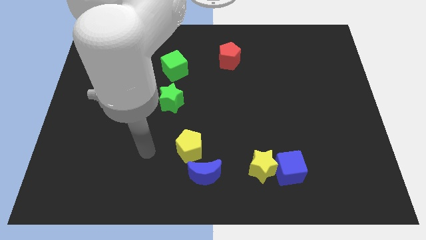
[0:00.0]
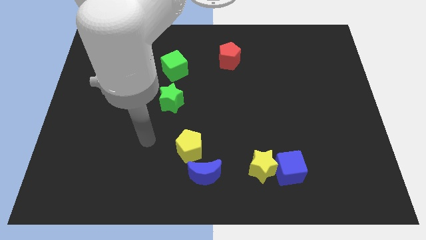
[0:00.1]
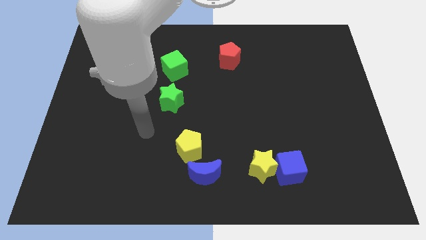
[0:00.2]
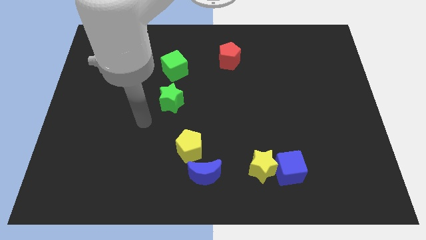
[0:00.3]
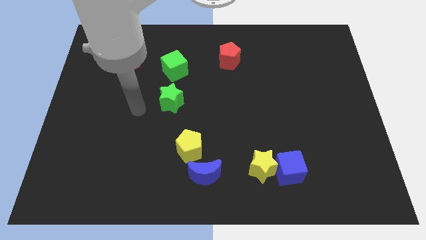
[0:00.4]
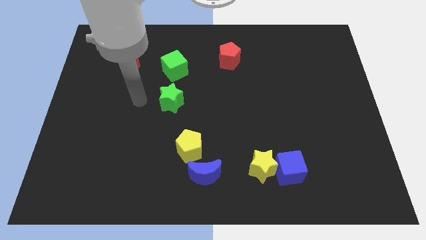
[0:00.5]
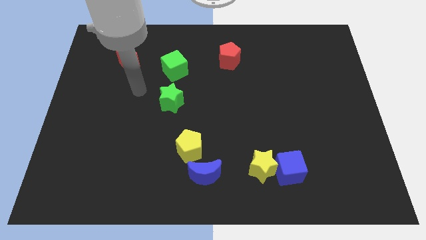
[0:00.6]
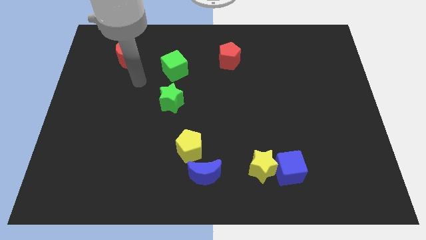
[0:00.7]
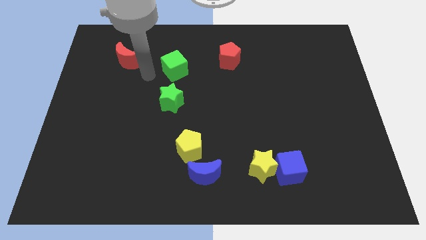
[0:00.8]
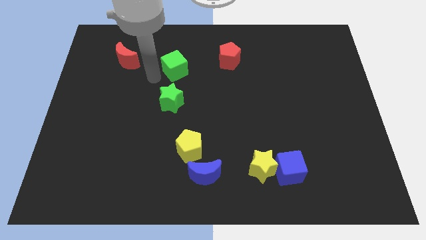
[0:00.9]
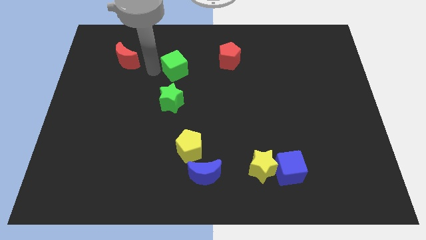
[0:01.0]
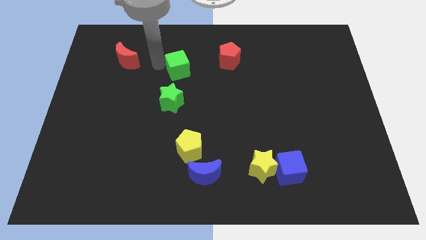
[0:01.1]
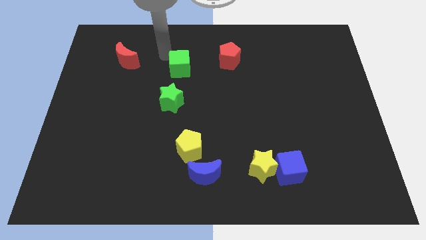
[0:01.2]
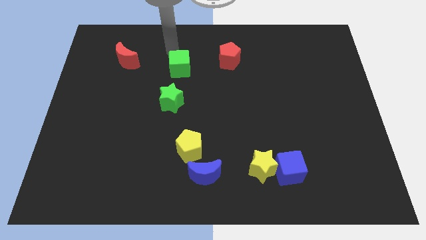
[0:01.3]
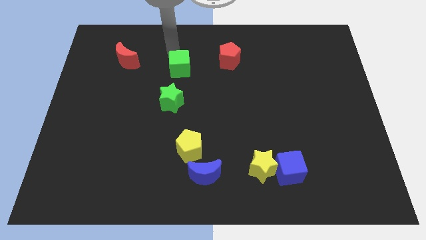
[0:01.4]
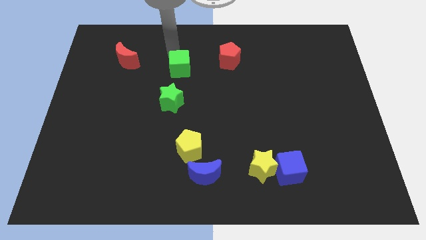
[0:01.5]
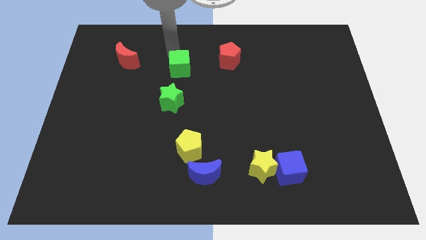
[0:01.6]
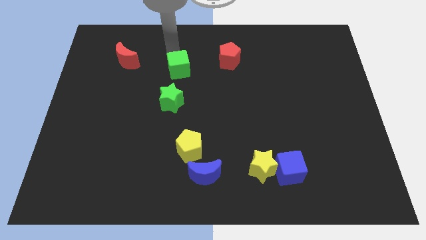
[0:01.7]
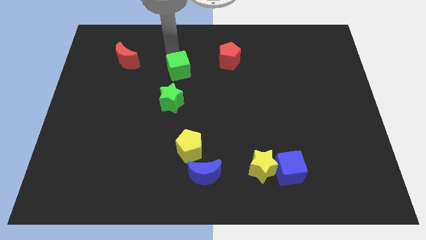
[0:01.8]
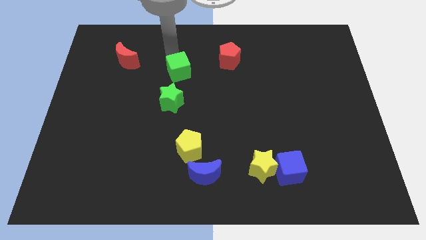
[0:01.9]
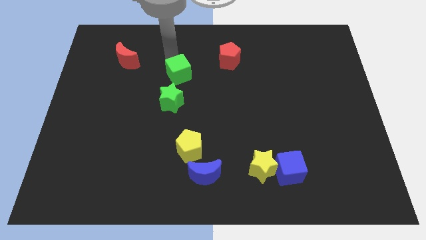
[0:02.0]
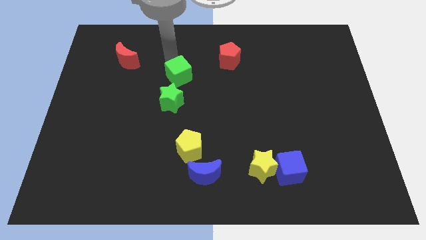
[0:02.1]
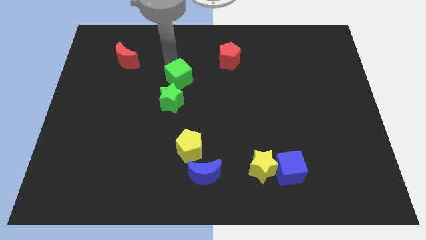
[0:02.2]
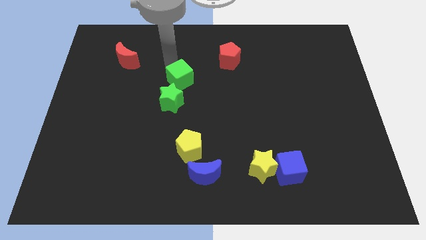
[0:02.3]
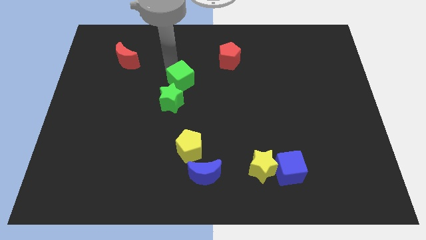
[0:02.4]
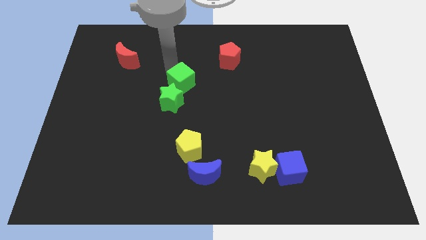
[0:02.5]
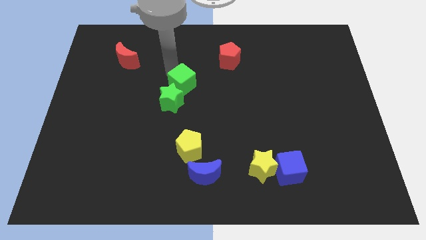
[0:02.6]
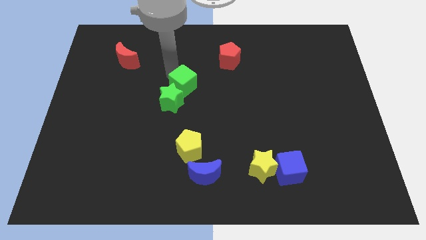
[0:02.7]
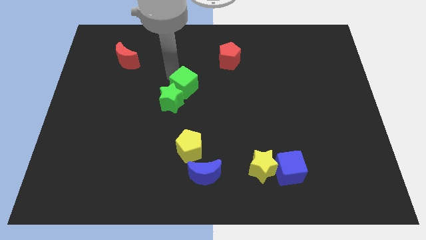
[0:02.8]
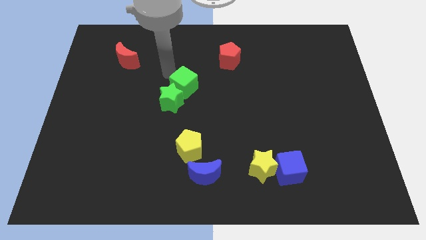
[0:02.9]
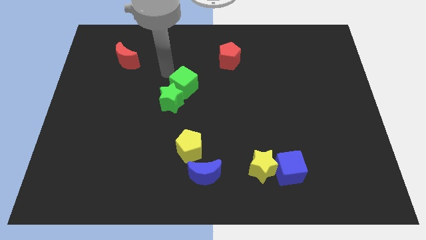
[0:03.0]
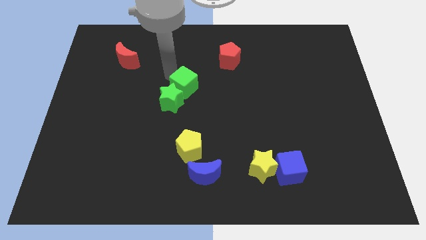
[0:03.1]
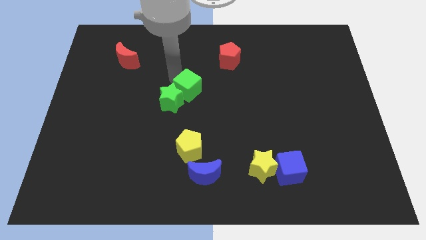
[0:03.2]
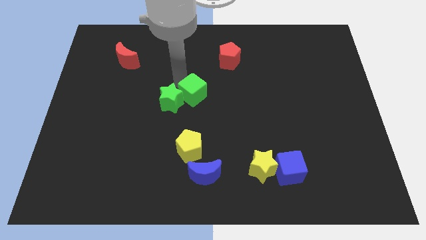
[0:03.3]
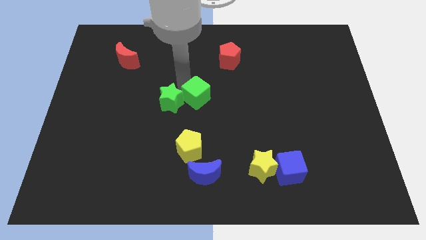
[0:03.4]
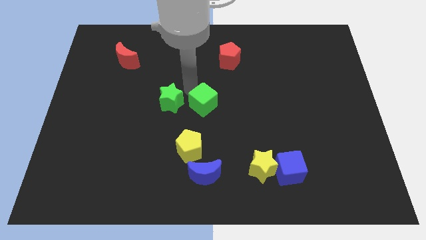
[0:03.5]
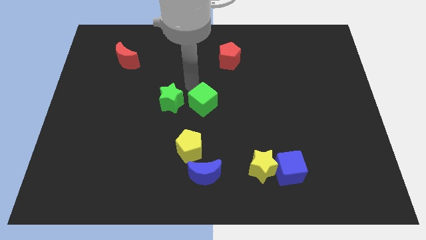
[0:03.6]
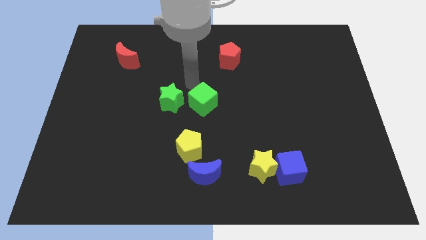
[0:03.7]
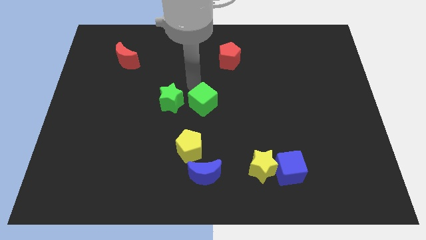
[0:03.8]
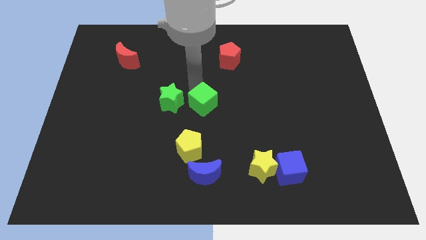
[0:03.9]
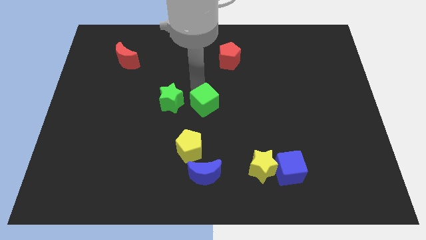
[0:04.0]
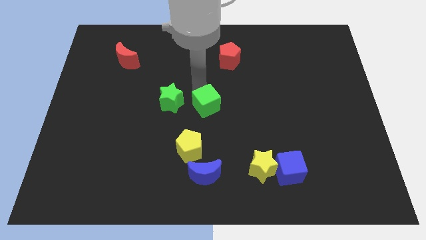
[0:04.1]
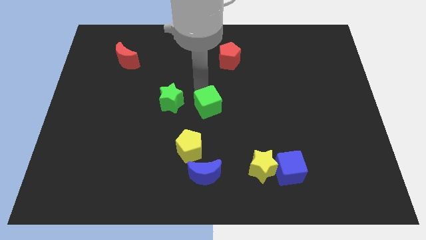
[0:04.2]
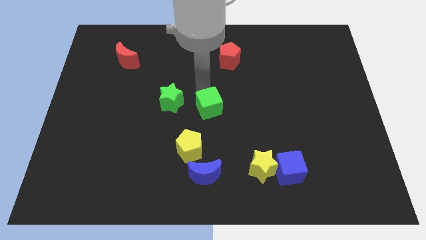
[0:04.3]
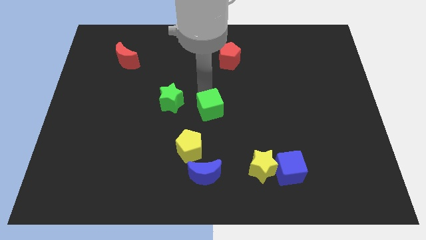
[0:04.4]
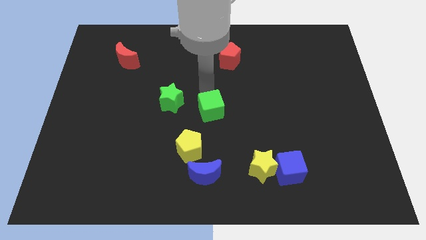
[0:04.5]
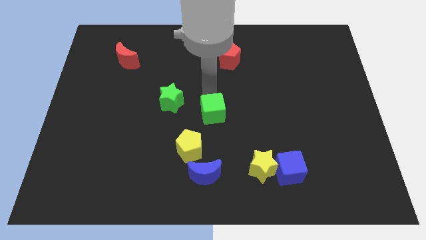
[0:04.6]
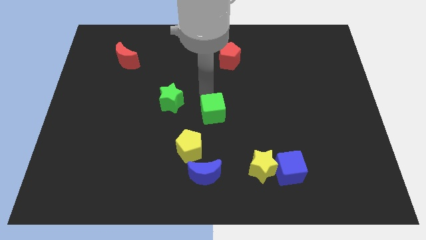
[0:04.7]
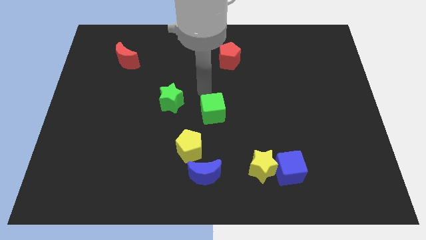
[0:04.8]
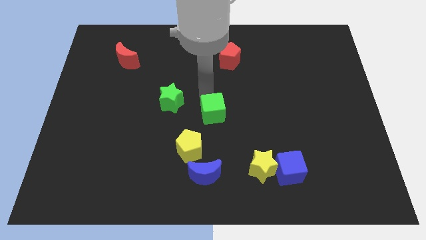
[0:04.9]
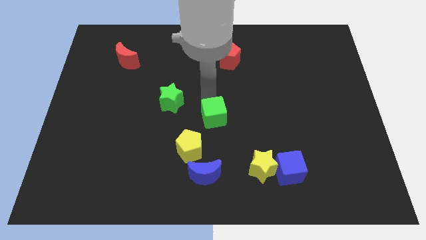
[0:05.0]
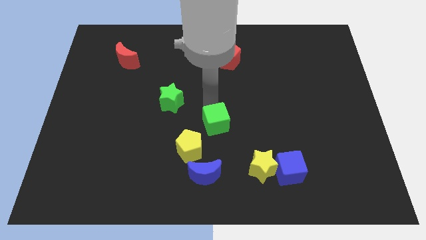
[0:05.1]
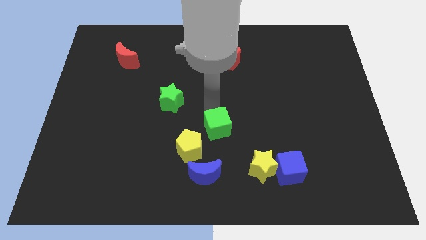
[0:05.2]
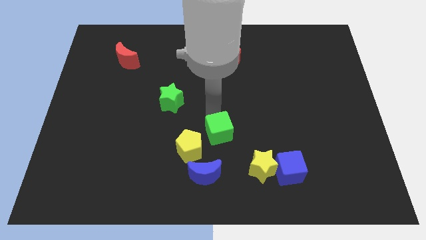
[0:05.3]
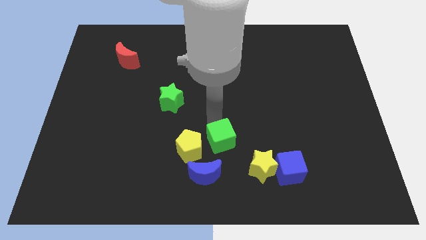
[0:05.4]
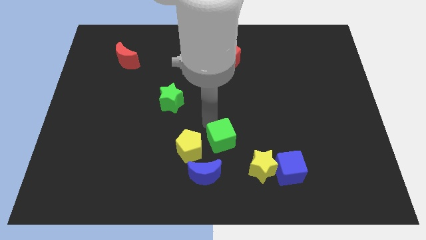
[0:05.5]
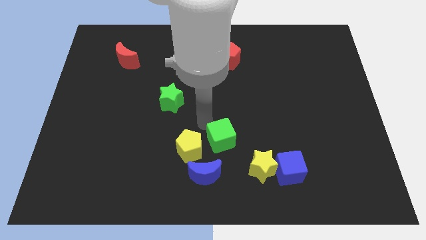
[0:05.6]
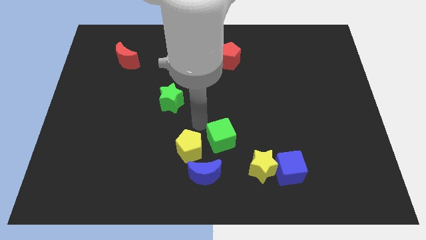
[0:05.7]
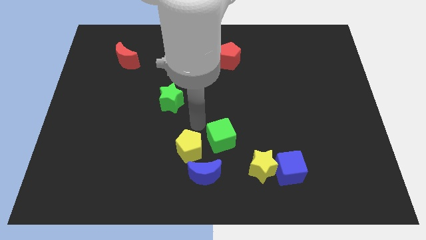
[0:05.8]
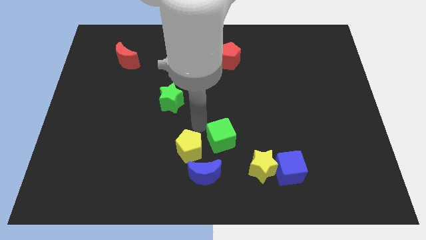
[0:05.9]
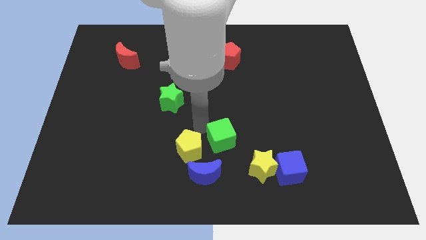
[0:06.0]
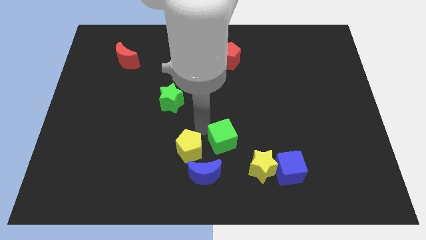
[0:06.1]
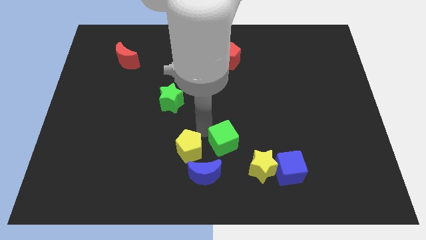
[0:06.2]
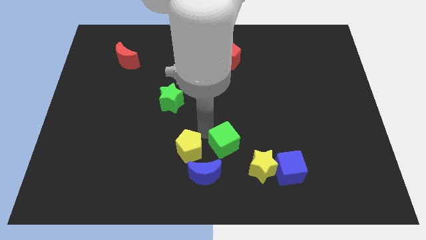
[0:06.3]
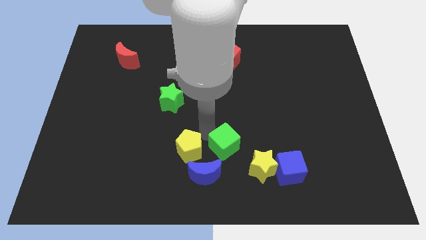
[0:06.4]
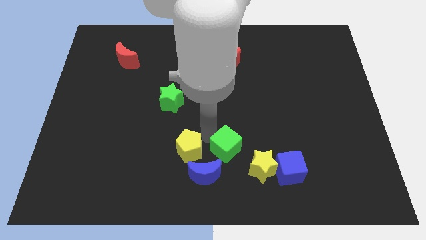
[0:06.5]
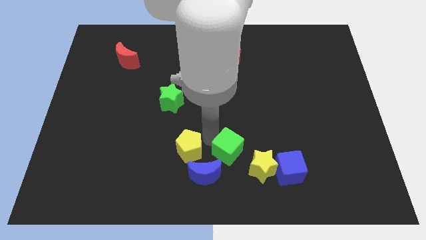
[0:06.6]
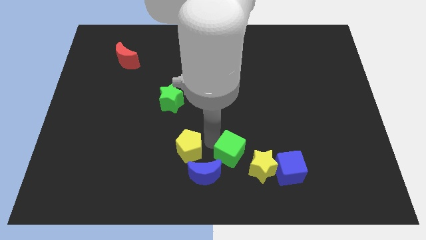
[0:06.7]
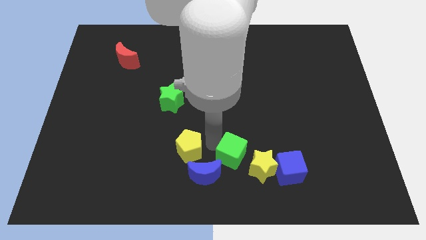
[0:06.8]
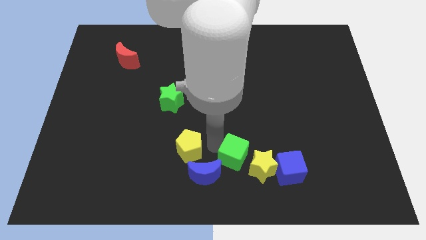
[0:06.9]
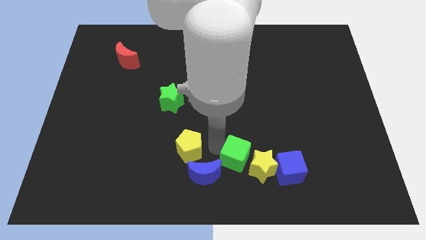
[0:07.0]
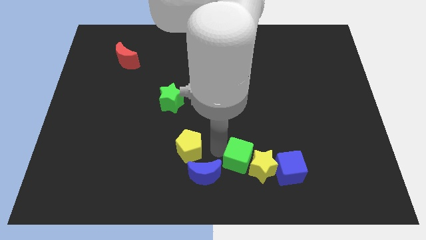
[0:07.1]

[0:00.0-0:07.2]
put the green cube towards the yellow star
